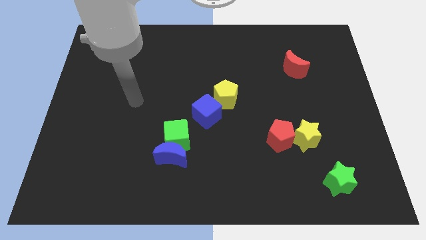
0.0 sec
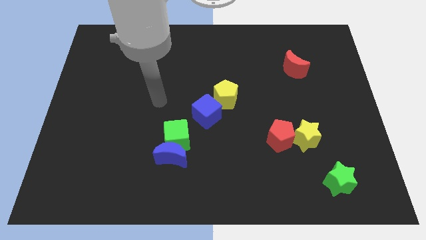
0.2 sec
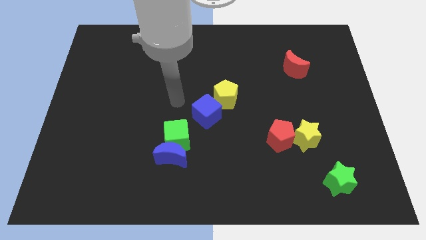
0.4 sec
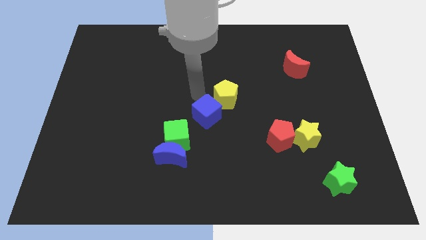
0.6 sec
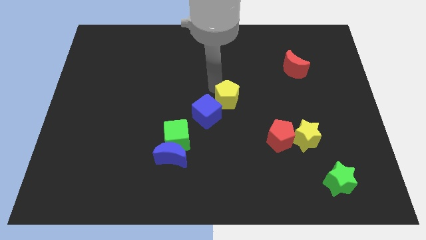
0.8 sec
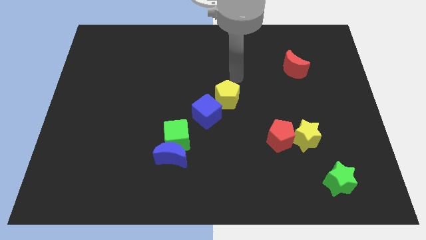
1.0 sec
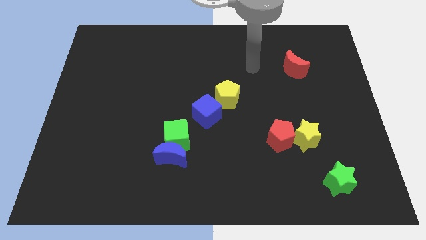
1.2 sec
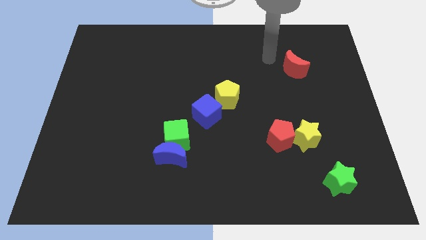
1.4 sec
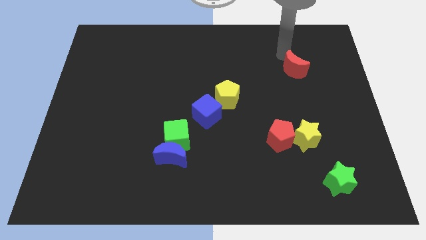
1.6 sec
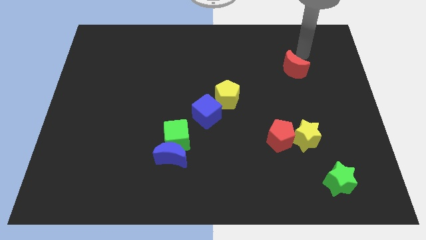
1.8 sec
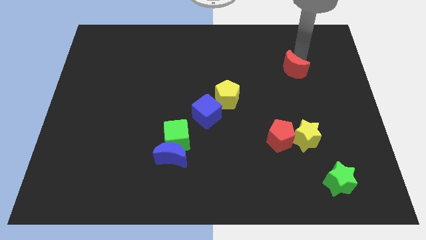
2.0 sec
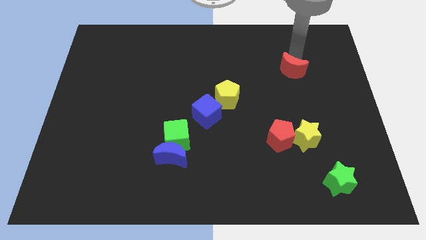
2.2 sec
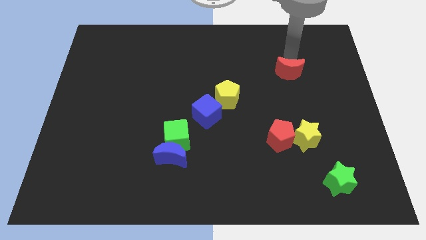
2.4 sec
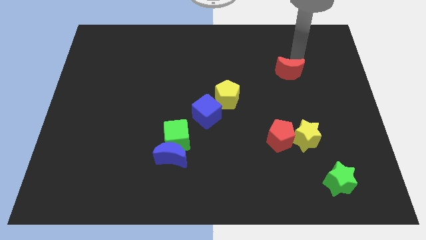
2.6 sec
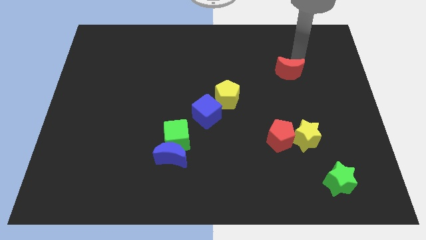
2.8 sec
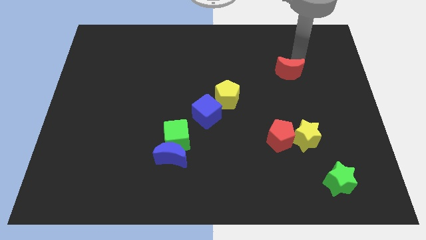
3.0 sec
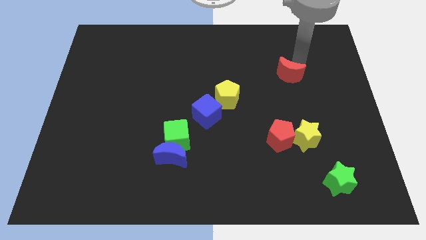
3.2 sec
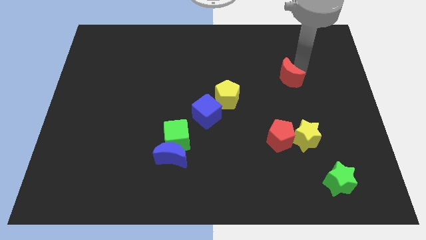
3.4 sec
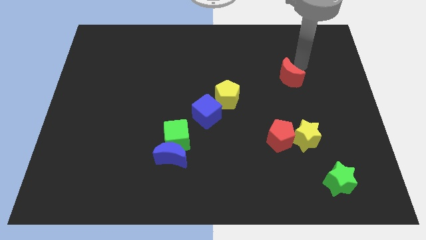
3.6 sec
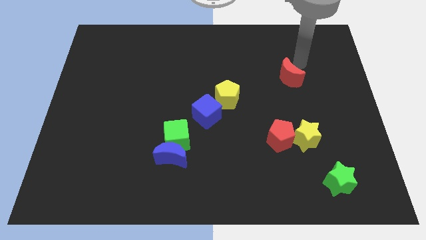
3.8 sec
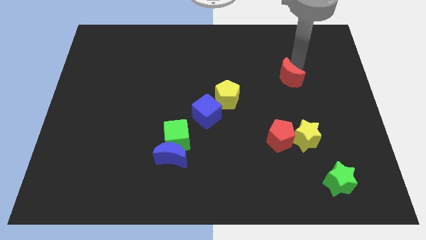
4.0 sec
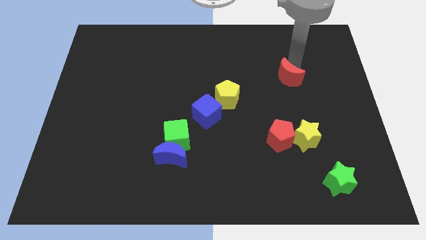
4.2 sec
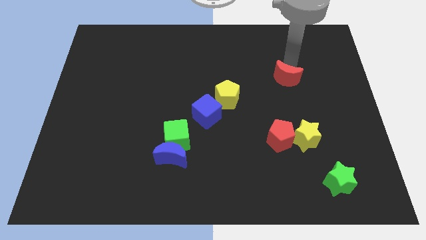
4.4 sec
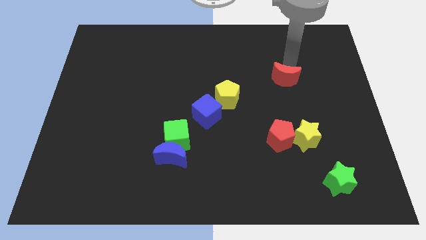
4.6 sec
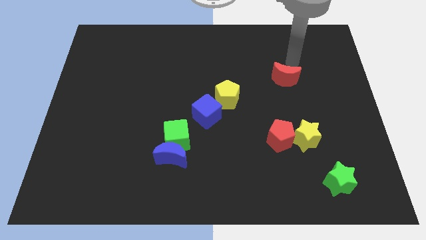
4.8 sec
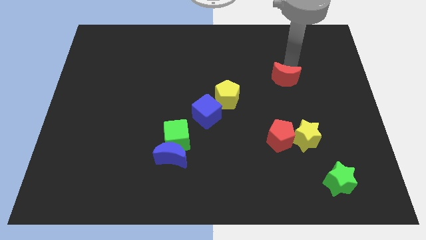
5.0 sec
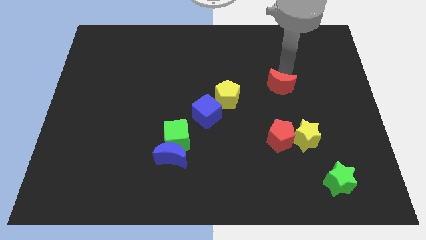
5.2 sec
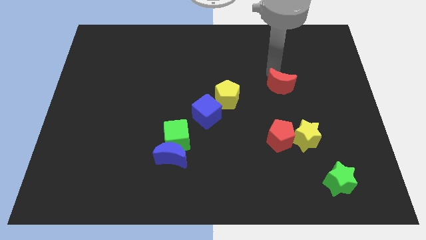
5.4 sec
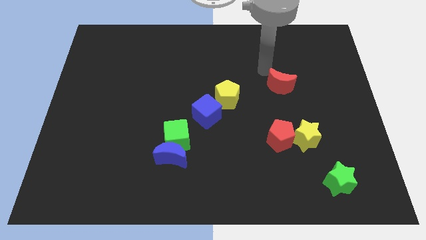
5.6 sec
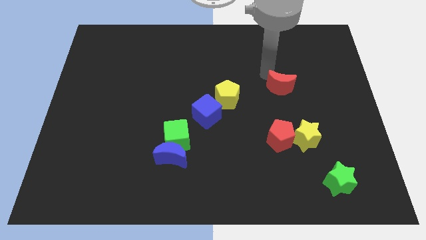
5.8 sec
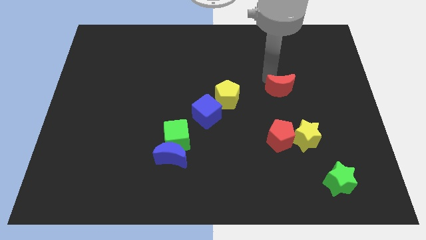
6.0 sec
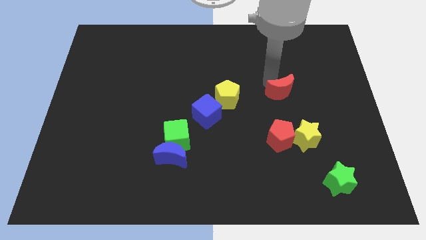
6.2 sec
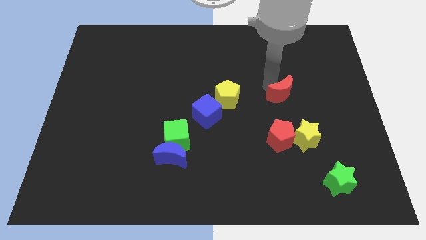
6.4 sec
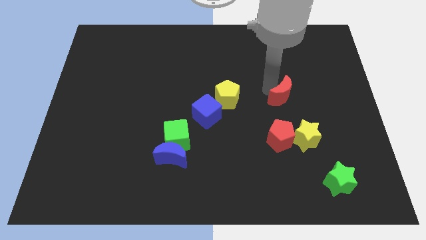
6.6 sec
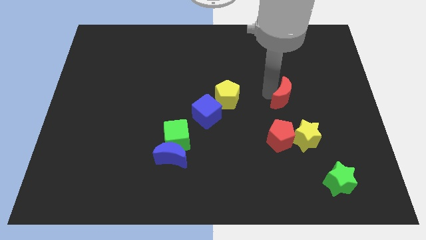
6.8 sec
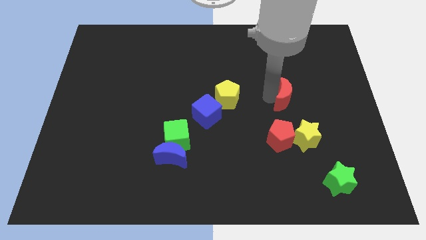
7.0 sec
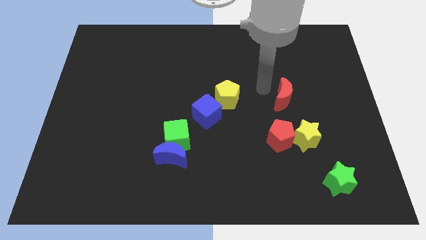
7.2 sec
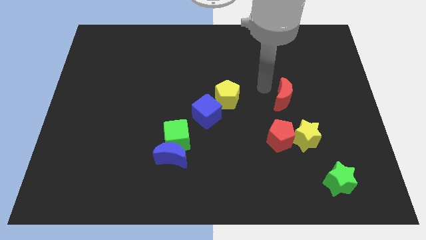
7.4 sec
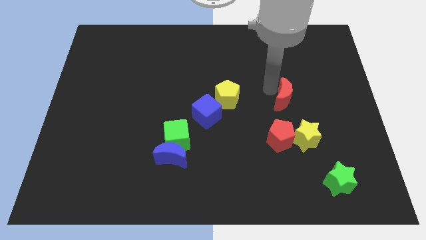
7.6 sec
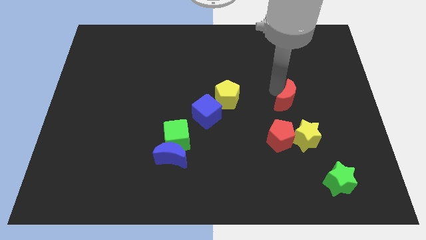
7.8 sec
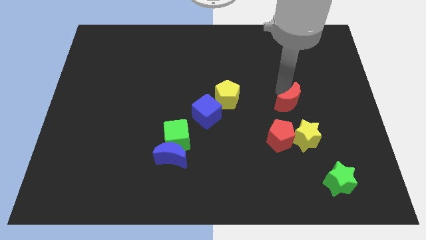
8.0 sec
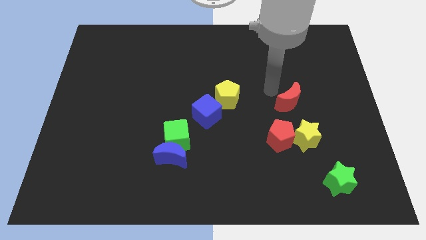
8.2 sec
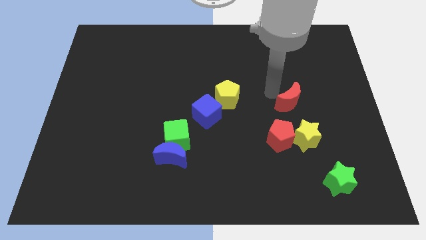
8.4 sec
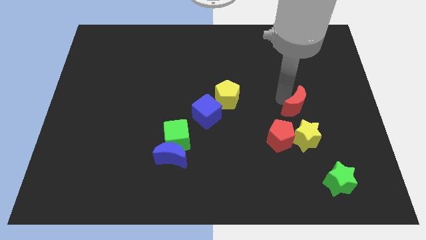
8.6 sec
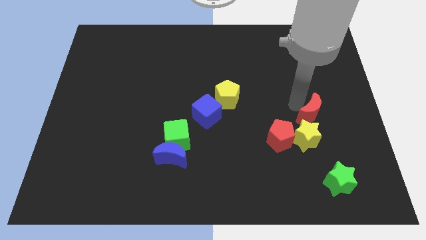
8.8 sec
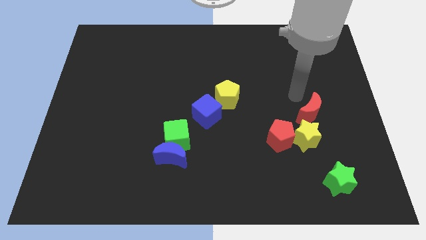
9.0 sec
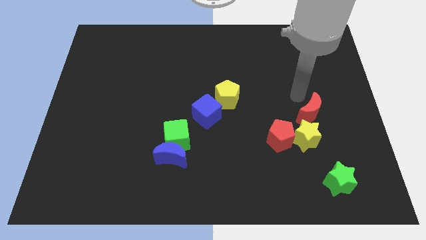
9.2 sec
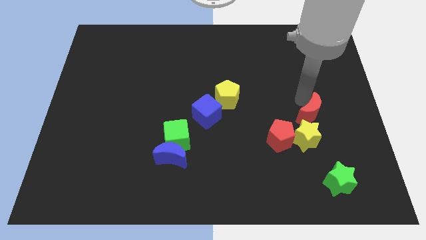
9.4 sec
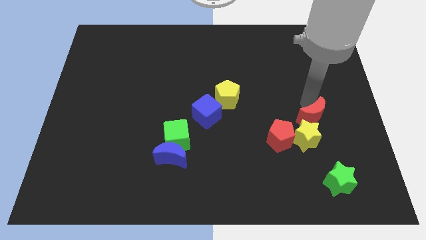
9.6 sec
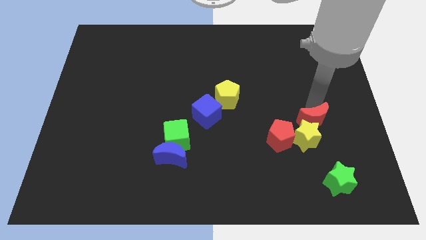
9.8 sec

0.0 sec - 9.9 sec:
put the red moon to the top of the green star

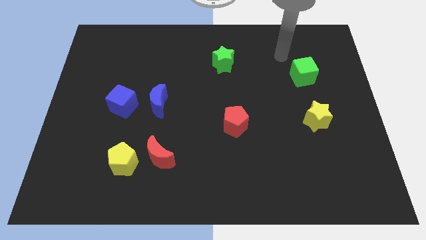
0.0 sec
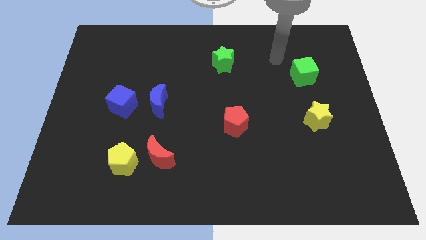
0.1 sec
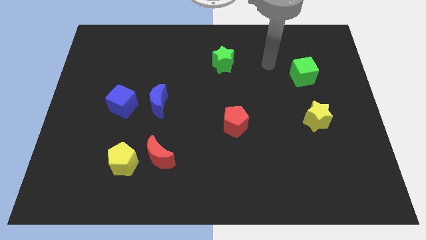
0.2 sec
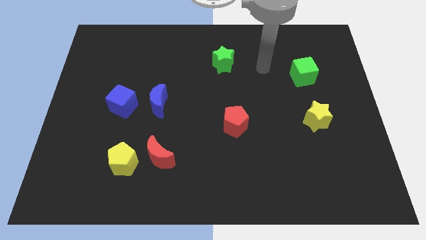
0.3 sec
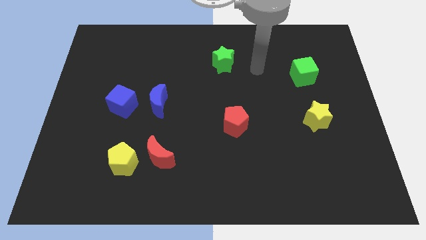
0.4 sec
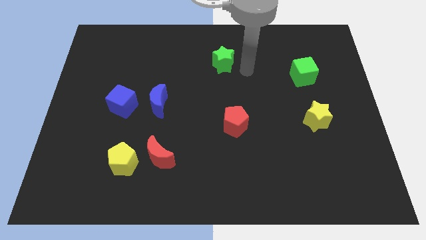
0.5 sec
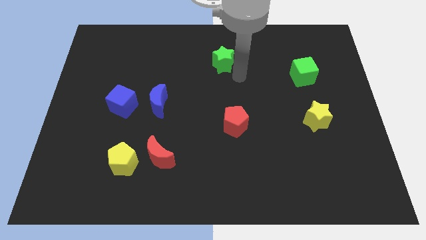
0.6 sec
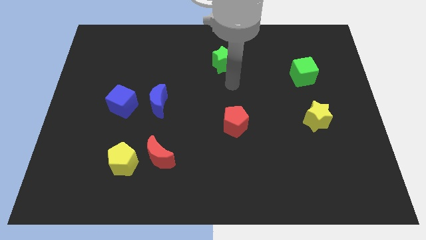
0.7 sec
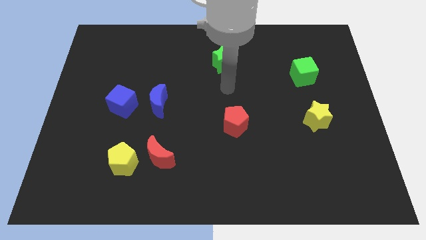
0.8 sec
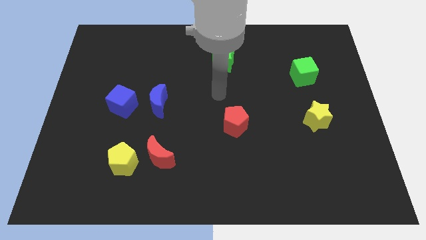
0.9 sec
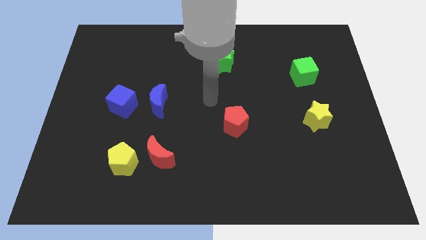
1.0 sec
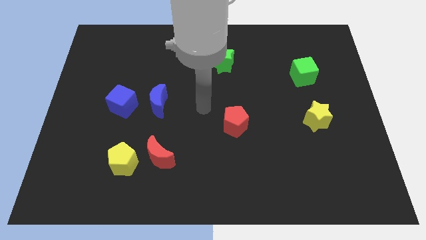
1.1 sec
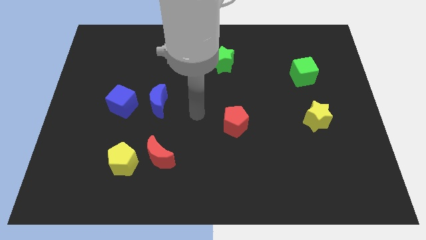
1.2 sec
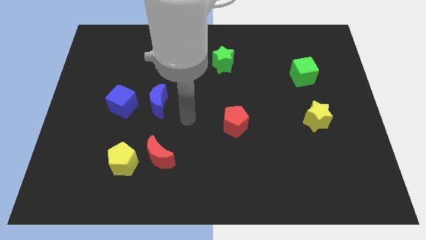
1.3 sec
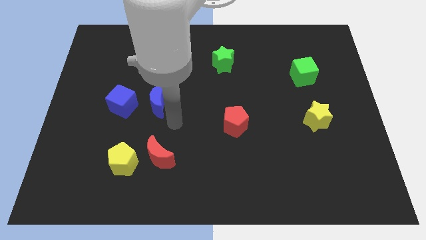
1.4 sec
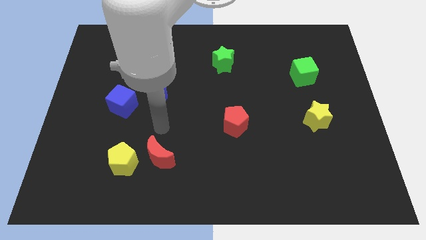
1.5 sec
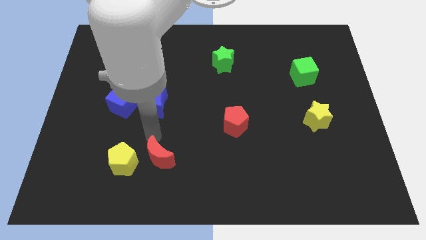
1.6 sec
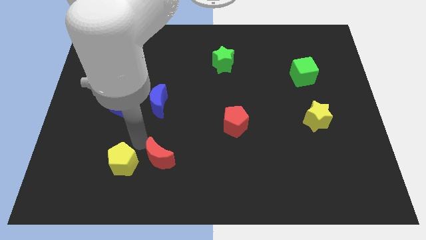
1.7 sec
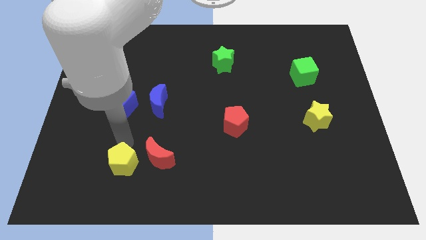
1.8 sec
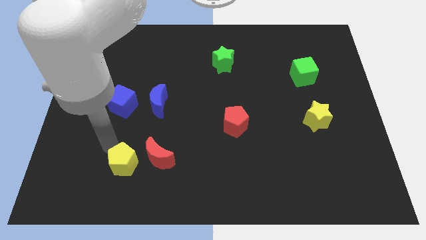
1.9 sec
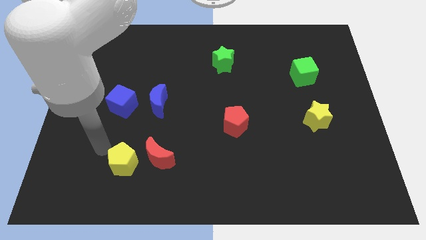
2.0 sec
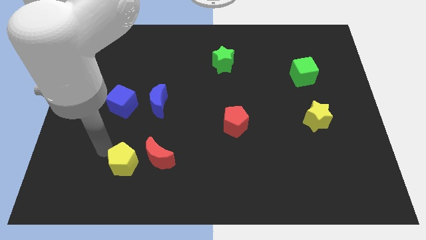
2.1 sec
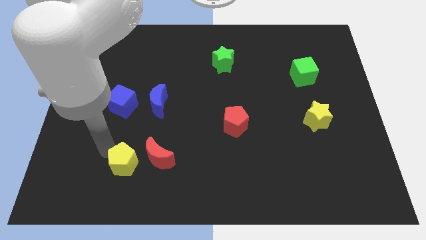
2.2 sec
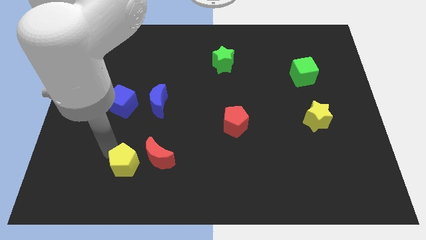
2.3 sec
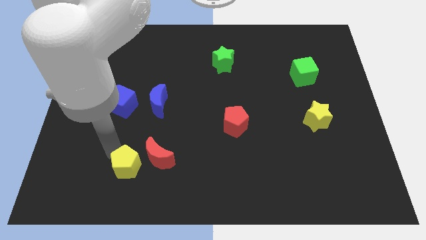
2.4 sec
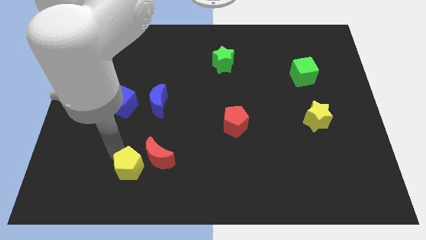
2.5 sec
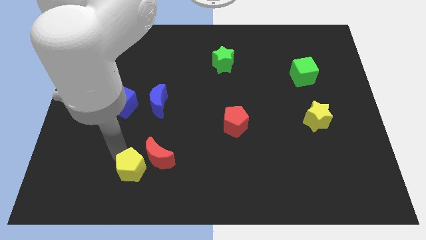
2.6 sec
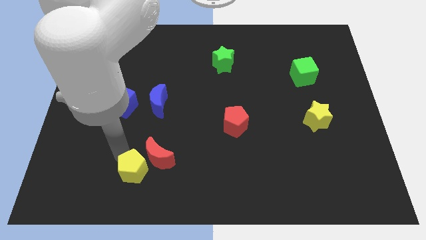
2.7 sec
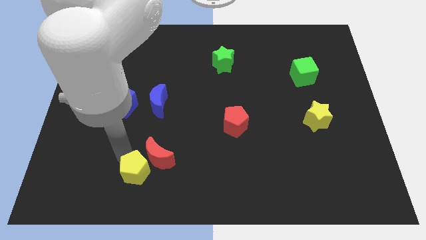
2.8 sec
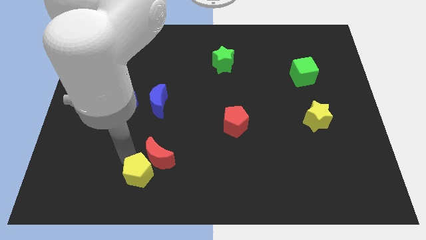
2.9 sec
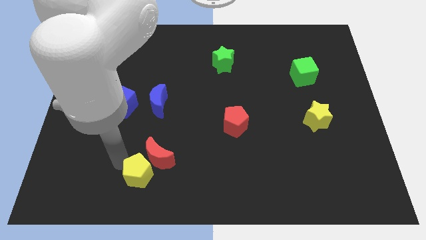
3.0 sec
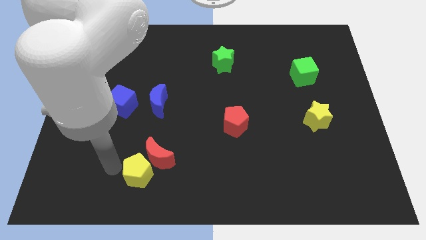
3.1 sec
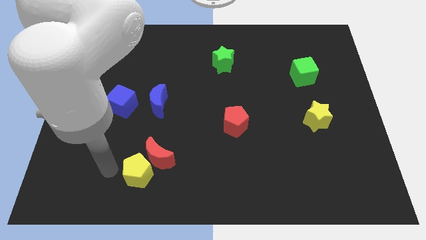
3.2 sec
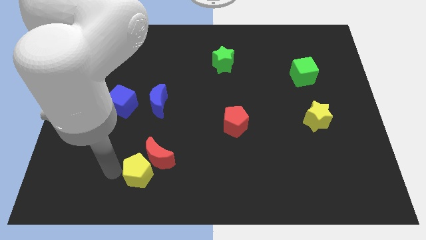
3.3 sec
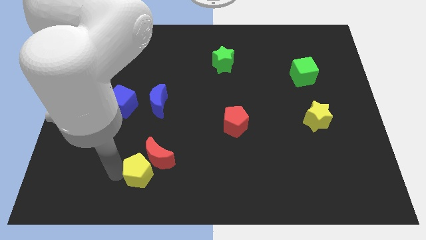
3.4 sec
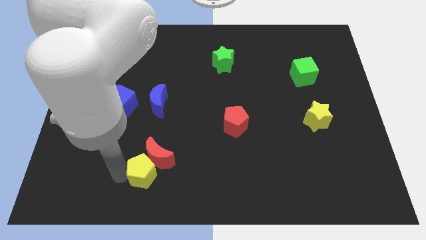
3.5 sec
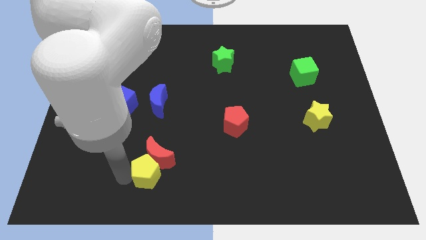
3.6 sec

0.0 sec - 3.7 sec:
push the yellow pentagon diagonally down and to the right of the red moon
